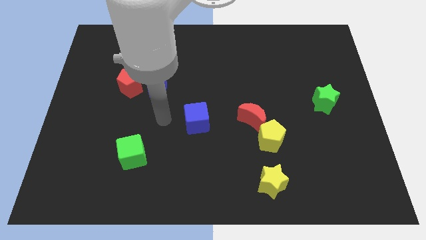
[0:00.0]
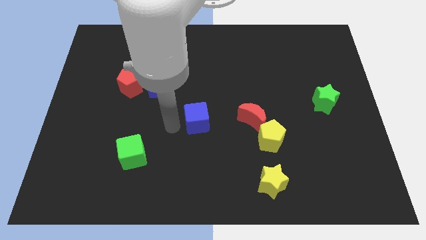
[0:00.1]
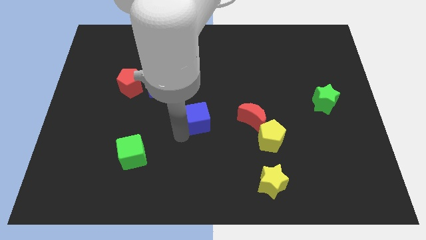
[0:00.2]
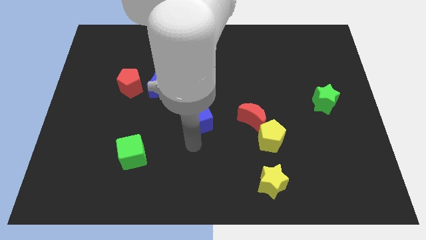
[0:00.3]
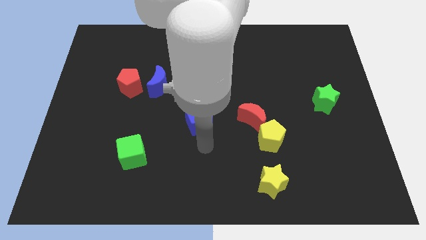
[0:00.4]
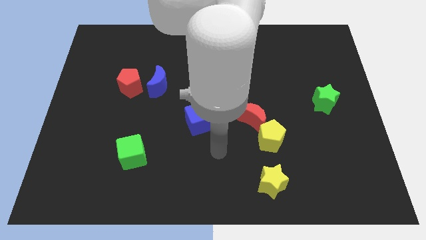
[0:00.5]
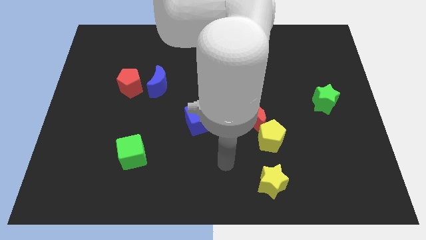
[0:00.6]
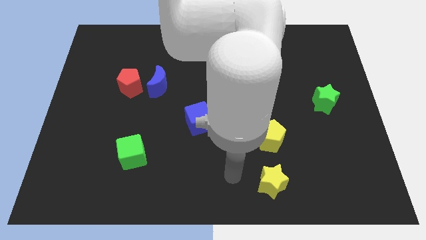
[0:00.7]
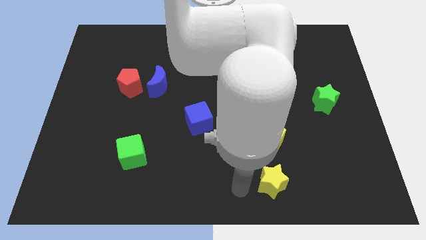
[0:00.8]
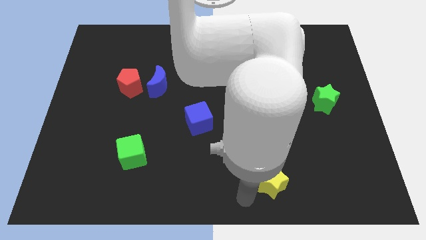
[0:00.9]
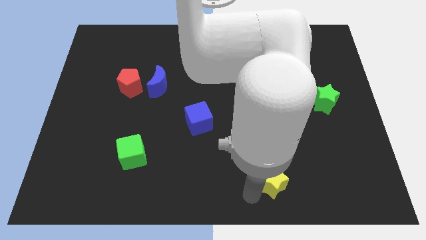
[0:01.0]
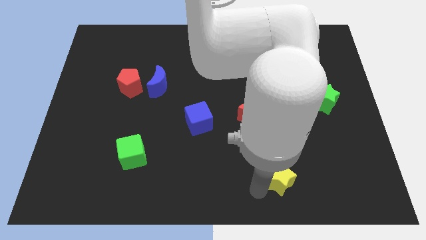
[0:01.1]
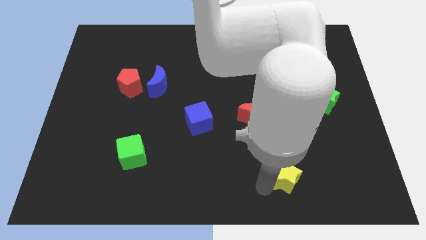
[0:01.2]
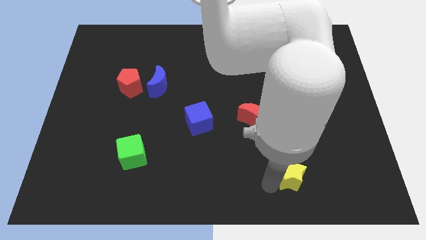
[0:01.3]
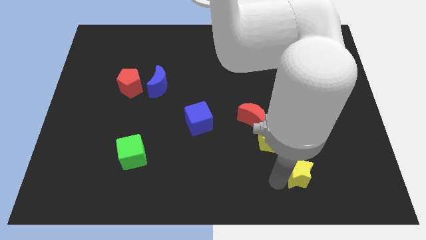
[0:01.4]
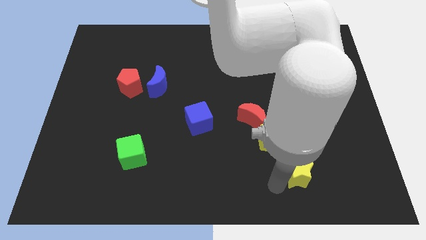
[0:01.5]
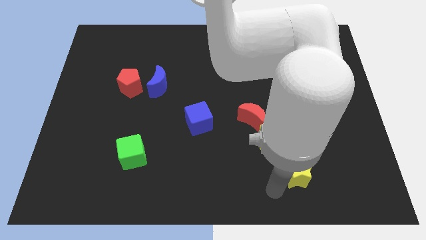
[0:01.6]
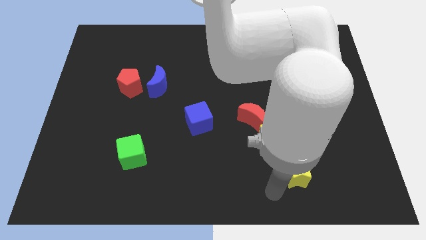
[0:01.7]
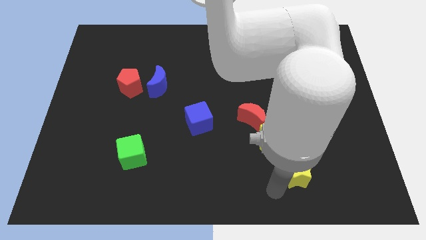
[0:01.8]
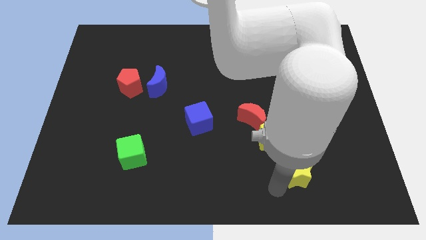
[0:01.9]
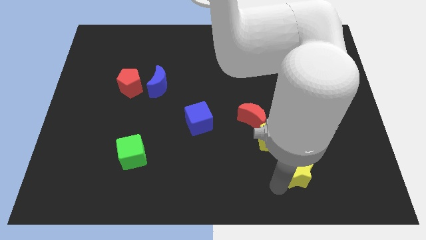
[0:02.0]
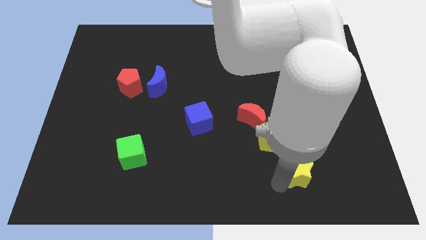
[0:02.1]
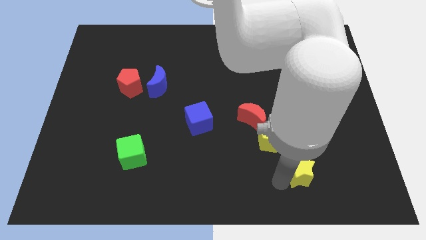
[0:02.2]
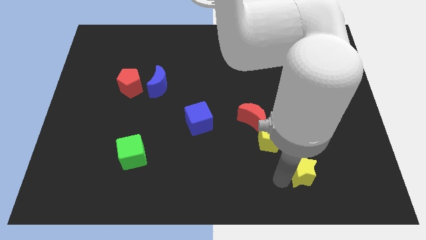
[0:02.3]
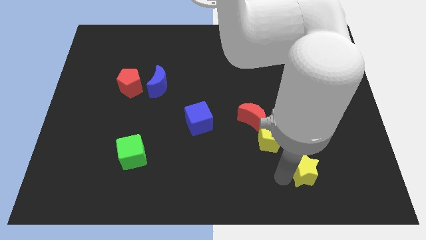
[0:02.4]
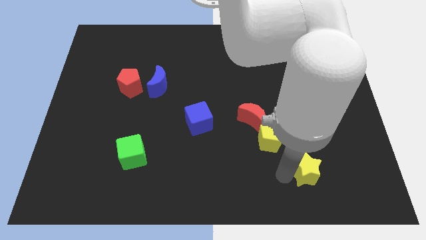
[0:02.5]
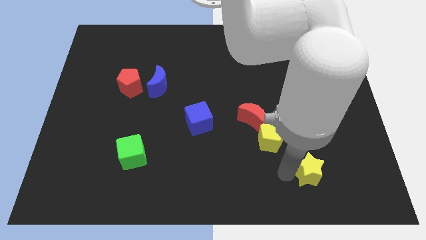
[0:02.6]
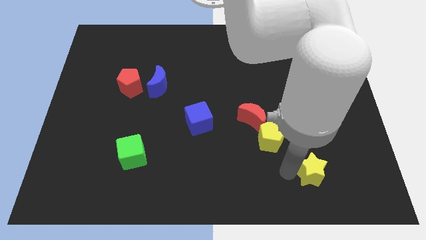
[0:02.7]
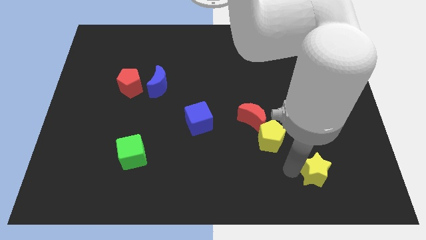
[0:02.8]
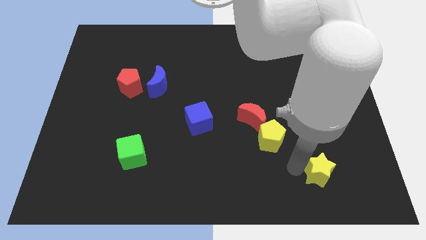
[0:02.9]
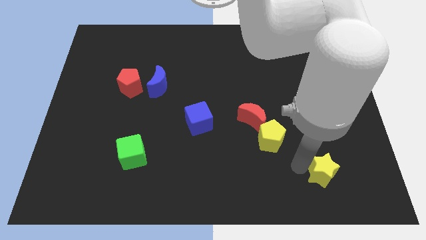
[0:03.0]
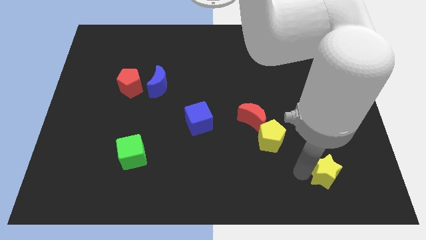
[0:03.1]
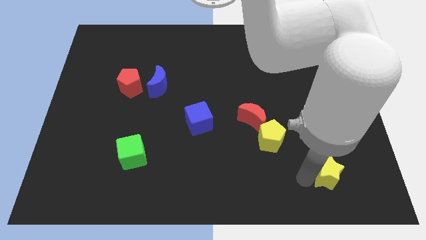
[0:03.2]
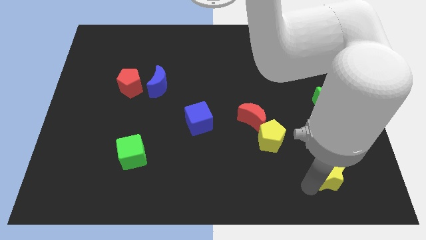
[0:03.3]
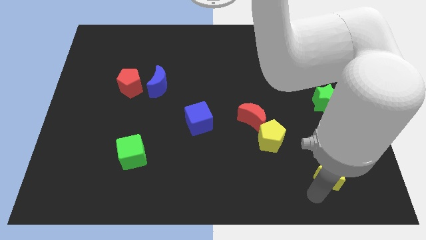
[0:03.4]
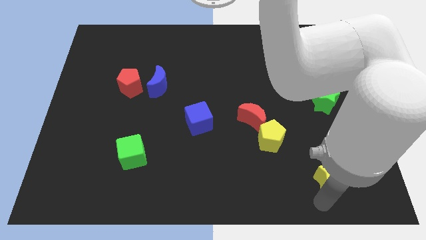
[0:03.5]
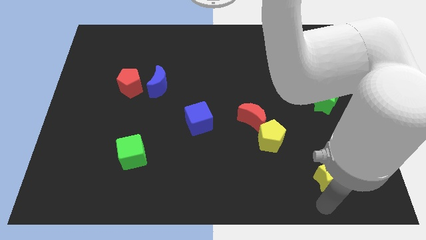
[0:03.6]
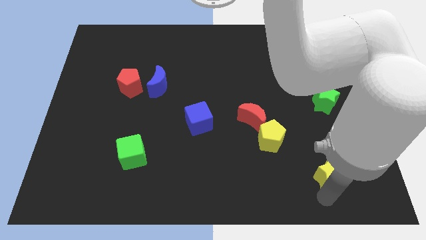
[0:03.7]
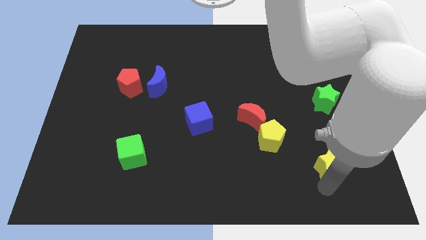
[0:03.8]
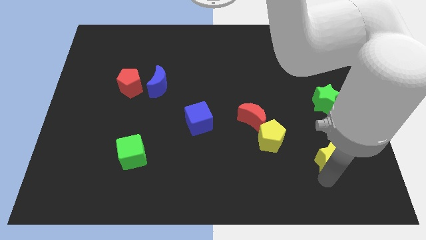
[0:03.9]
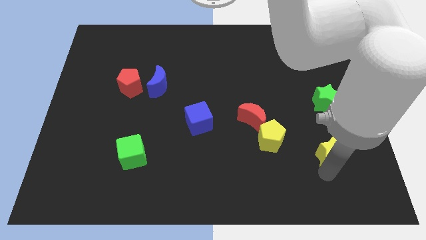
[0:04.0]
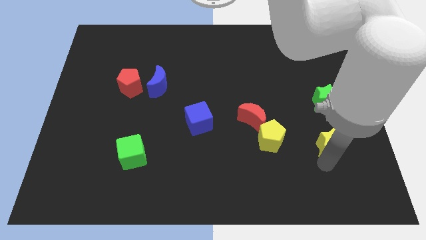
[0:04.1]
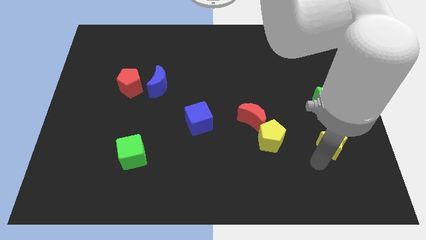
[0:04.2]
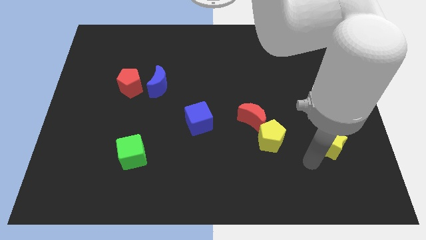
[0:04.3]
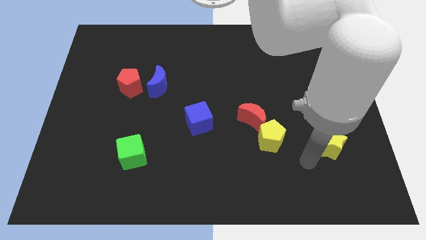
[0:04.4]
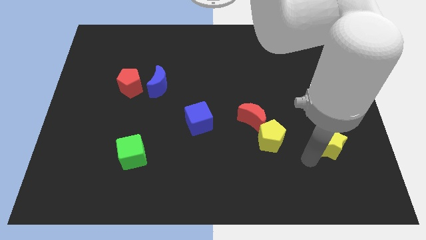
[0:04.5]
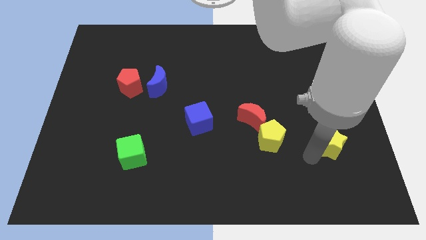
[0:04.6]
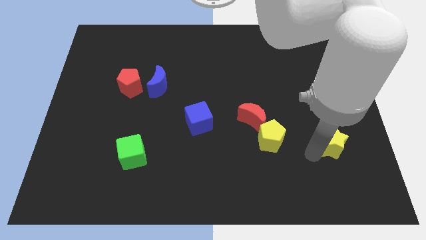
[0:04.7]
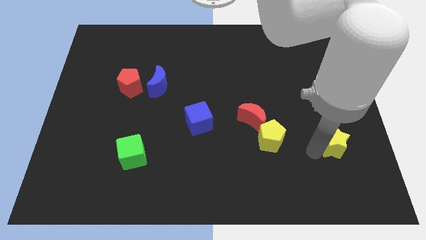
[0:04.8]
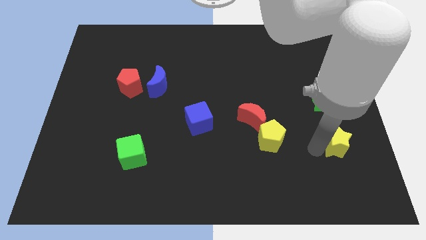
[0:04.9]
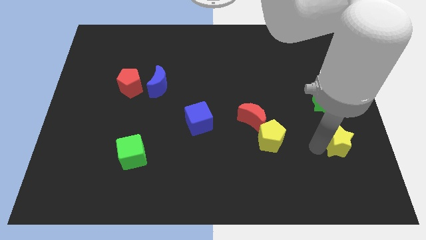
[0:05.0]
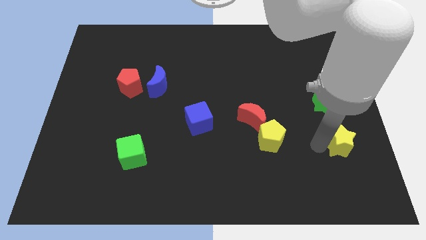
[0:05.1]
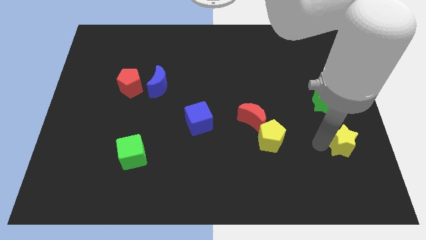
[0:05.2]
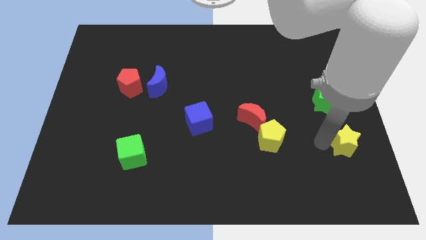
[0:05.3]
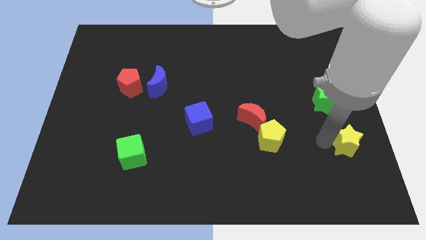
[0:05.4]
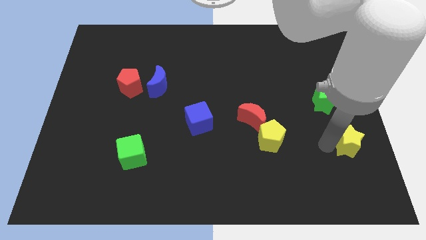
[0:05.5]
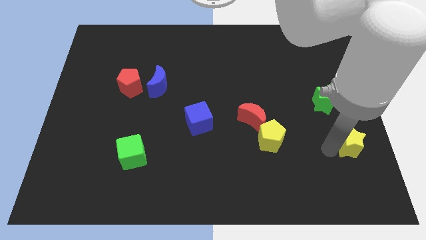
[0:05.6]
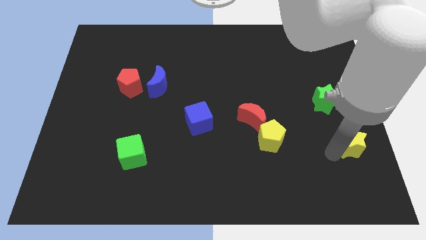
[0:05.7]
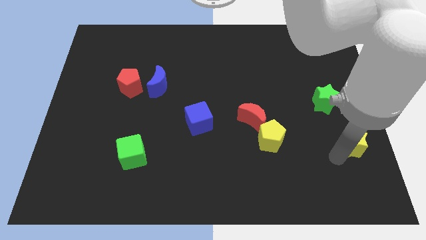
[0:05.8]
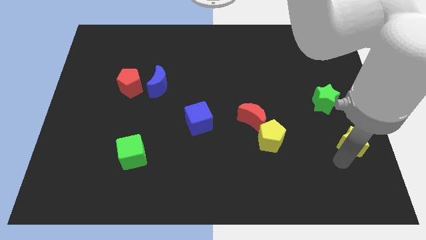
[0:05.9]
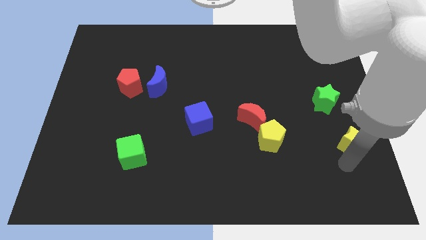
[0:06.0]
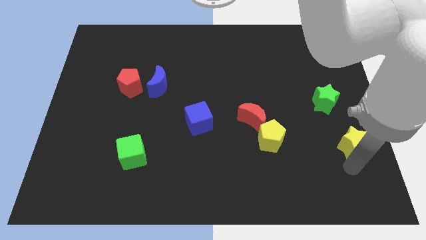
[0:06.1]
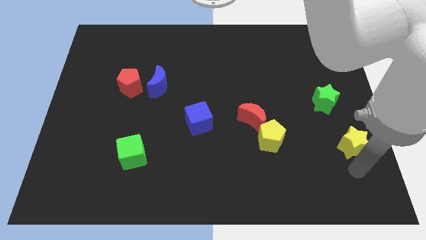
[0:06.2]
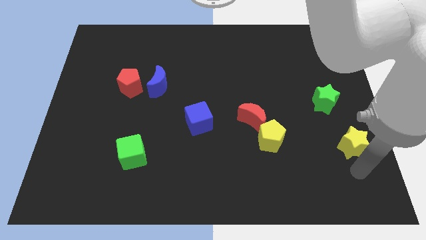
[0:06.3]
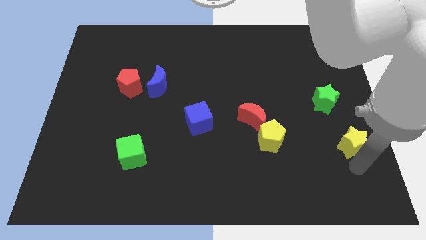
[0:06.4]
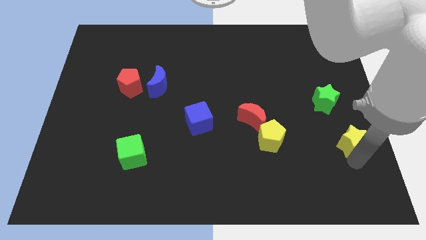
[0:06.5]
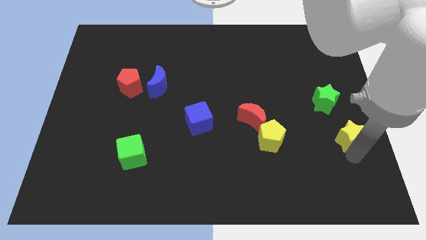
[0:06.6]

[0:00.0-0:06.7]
move the yellow star to the right side

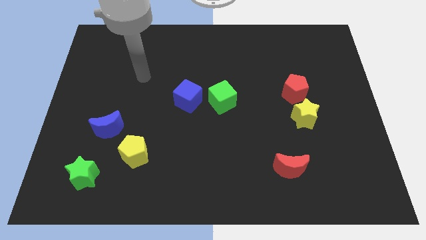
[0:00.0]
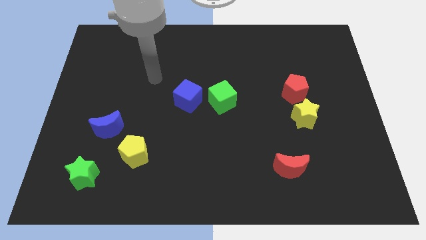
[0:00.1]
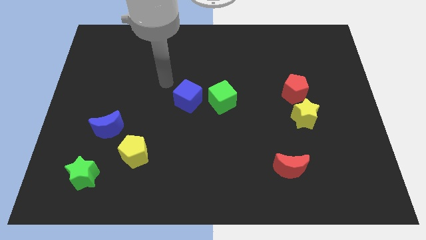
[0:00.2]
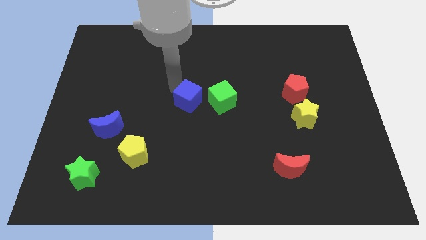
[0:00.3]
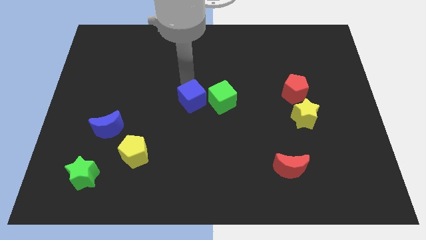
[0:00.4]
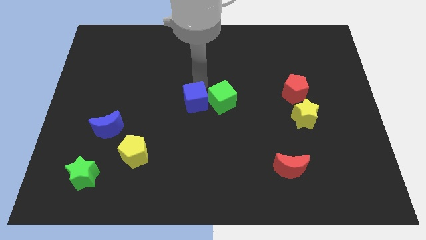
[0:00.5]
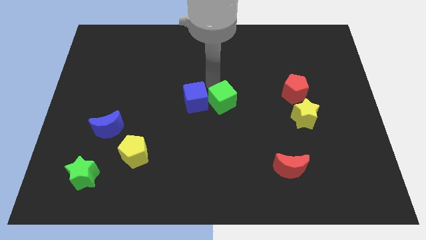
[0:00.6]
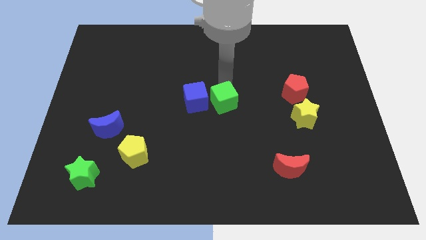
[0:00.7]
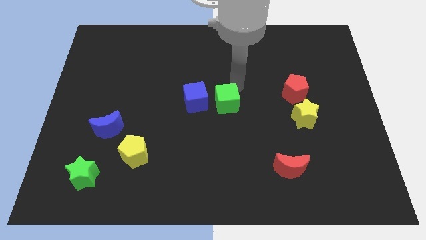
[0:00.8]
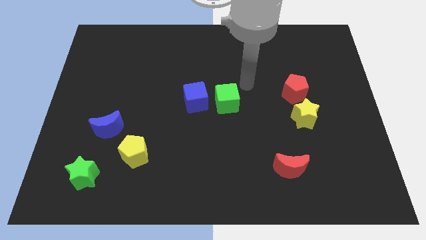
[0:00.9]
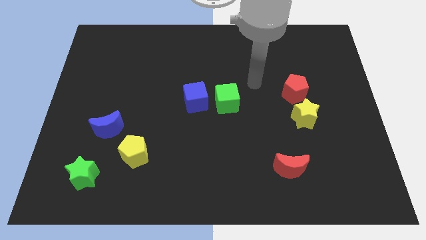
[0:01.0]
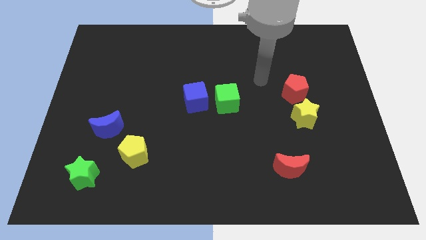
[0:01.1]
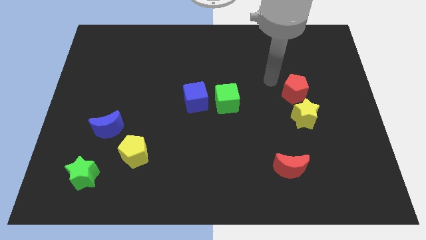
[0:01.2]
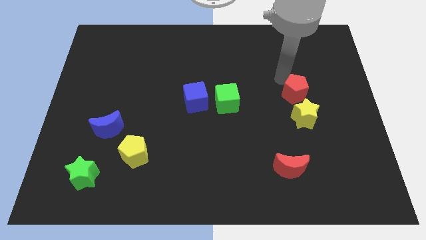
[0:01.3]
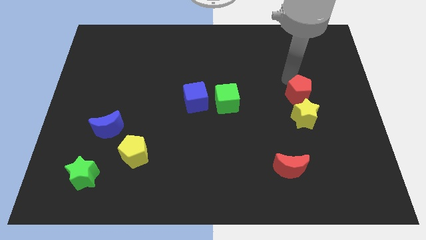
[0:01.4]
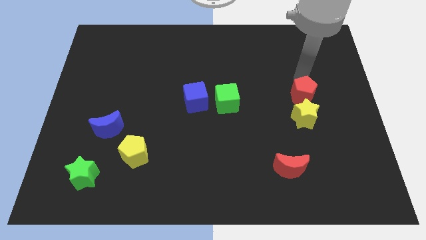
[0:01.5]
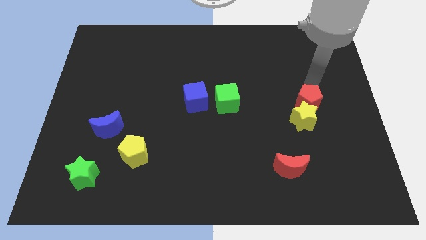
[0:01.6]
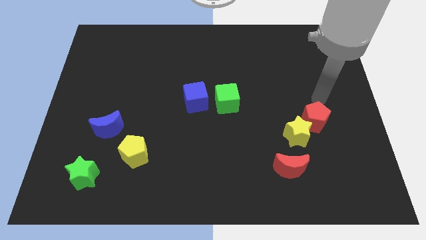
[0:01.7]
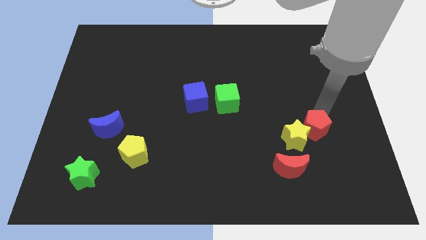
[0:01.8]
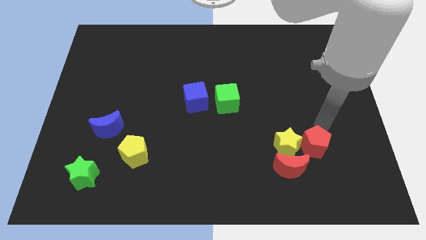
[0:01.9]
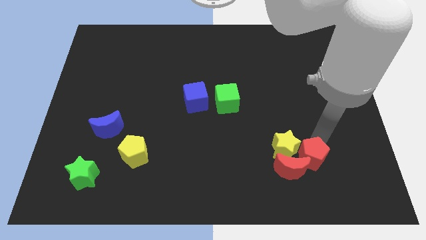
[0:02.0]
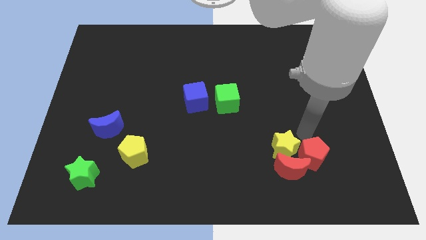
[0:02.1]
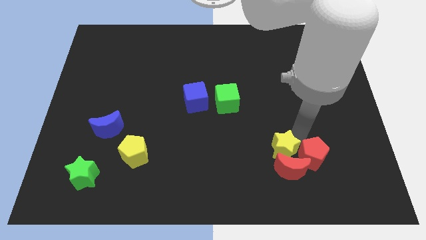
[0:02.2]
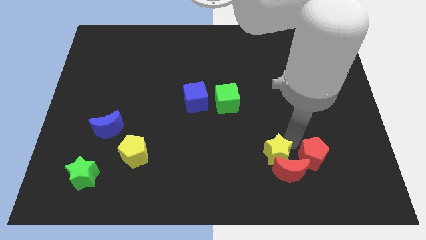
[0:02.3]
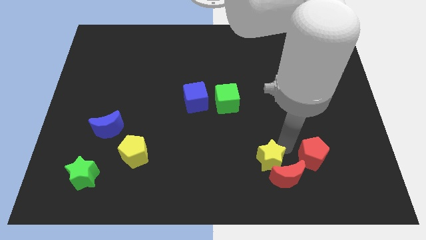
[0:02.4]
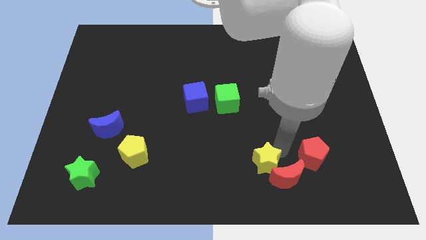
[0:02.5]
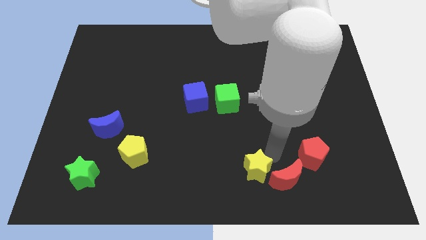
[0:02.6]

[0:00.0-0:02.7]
move the yellow star to the bottom side
